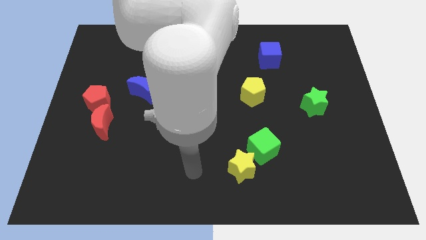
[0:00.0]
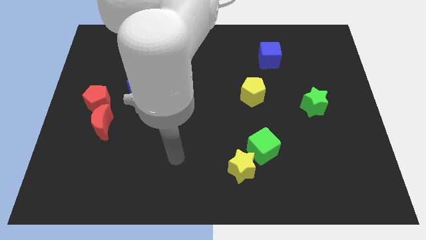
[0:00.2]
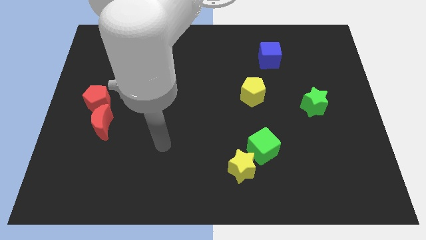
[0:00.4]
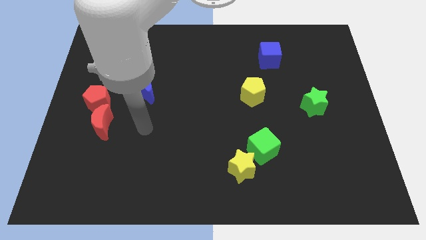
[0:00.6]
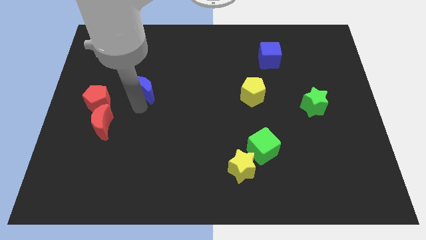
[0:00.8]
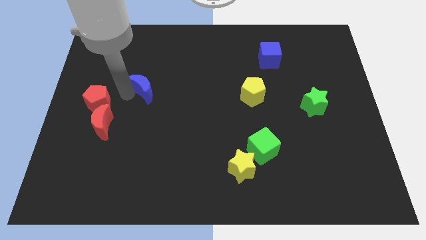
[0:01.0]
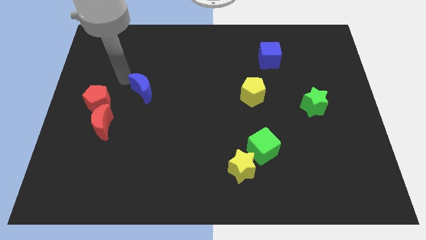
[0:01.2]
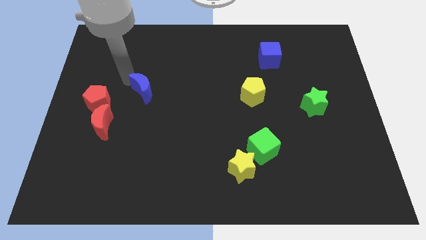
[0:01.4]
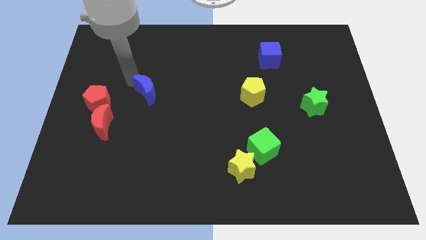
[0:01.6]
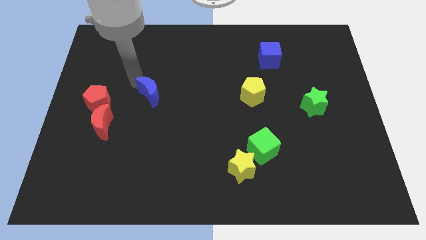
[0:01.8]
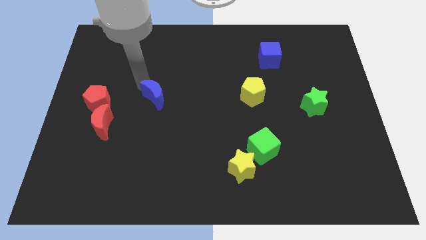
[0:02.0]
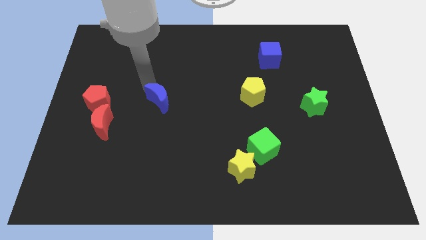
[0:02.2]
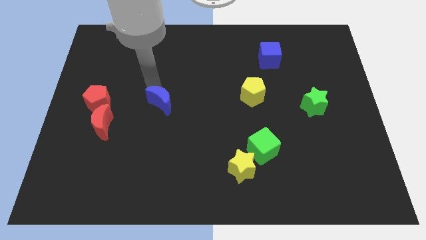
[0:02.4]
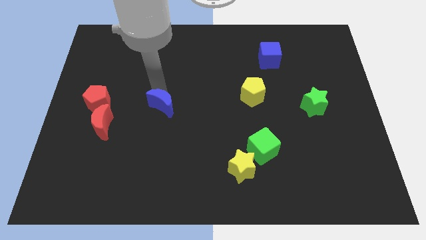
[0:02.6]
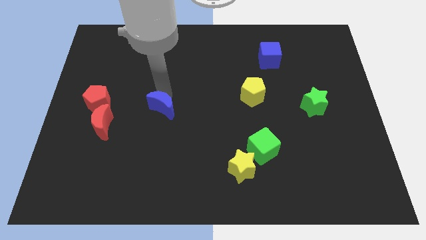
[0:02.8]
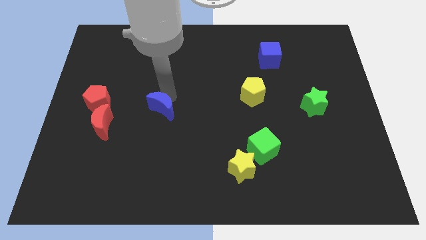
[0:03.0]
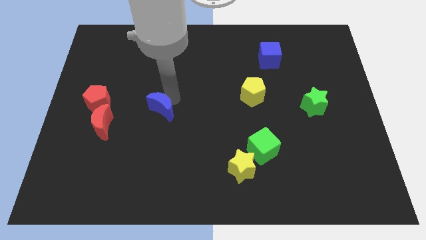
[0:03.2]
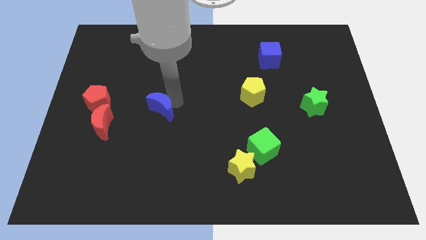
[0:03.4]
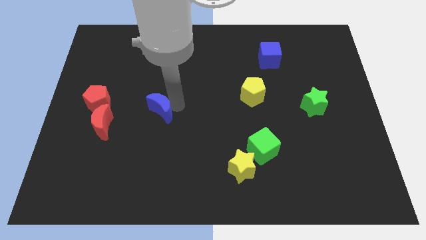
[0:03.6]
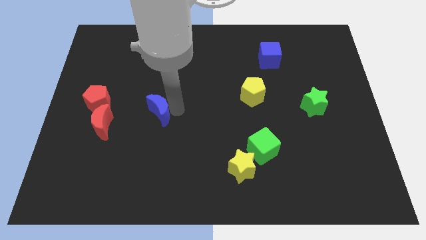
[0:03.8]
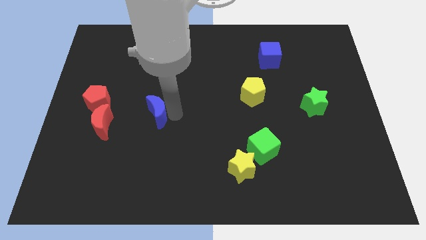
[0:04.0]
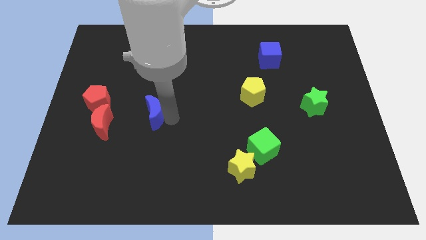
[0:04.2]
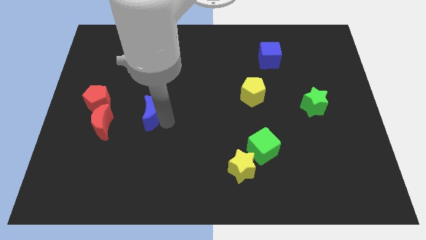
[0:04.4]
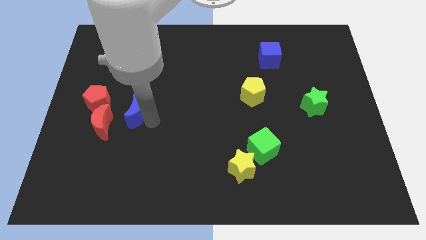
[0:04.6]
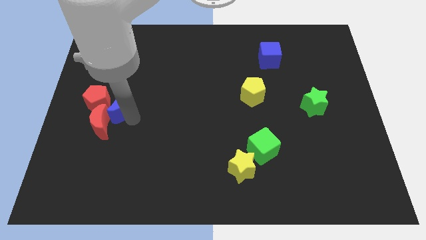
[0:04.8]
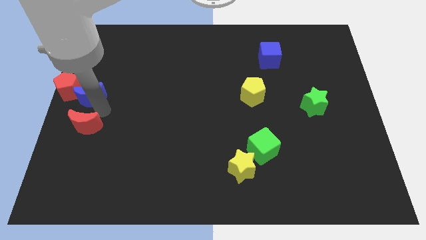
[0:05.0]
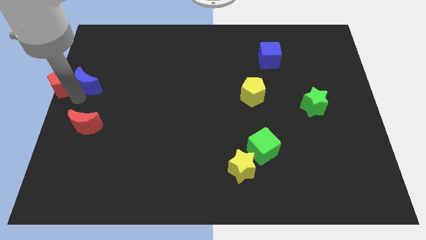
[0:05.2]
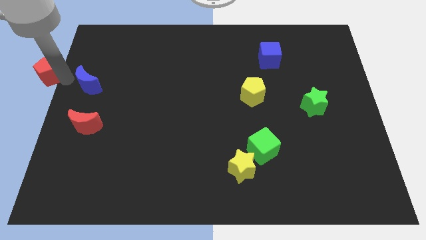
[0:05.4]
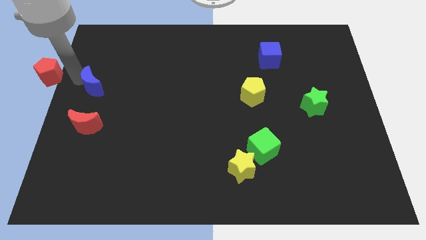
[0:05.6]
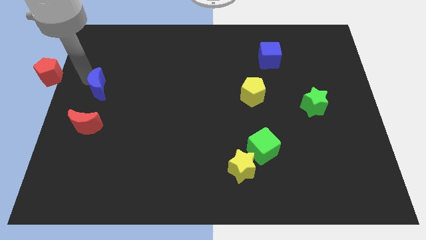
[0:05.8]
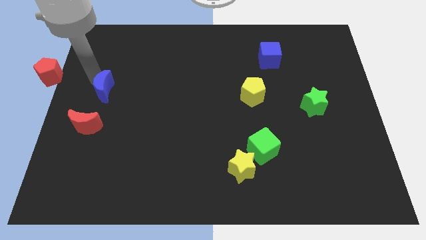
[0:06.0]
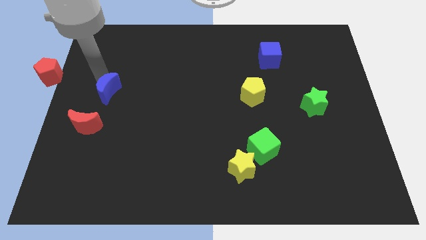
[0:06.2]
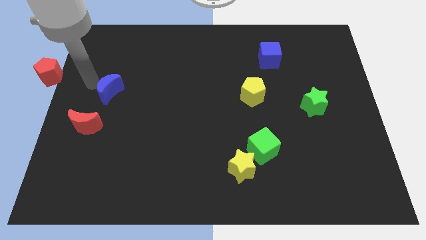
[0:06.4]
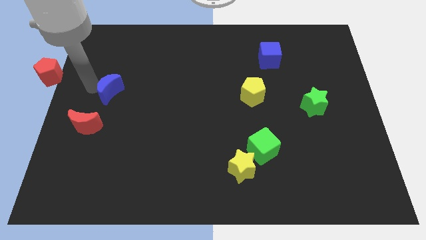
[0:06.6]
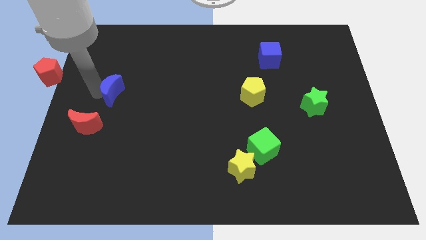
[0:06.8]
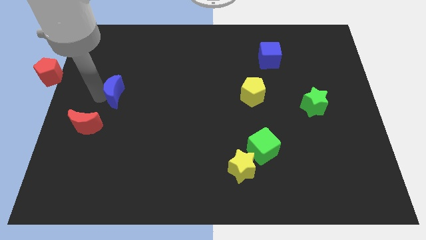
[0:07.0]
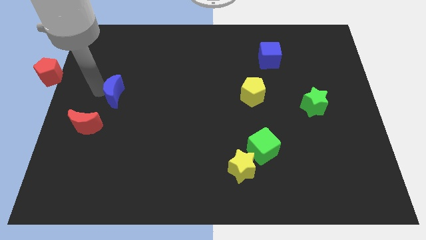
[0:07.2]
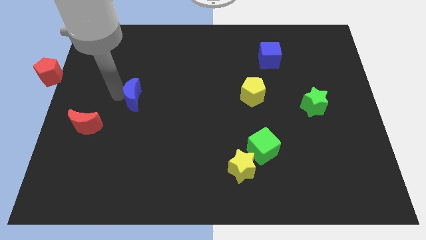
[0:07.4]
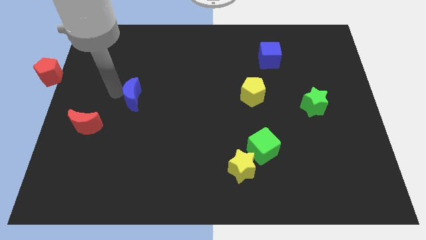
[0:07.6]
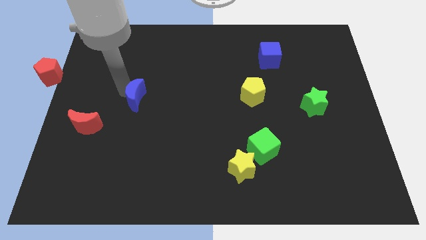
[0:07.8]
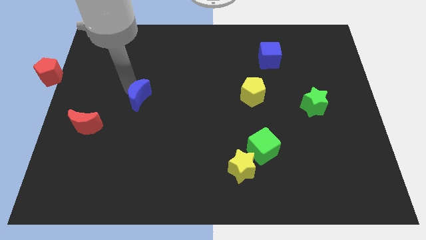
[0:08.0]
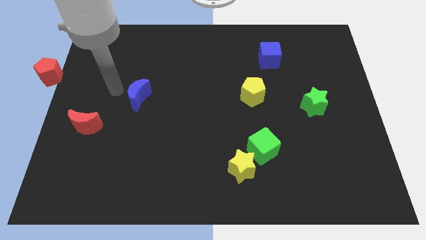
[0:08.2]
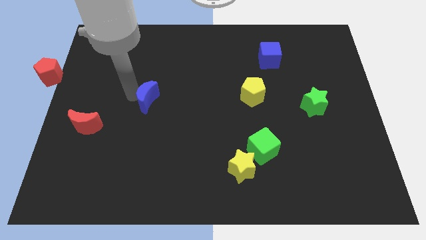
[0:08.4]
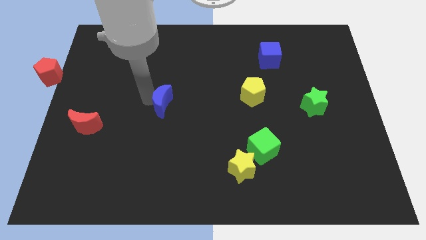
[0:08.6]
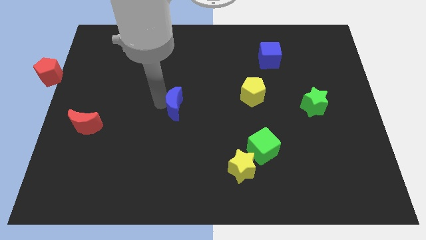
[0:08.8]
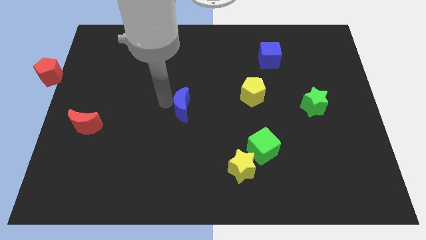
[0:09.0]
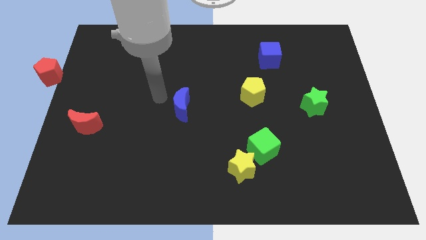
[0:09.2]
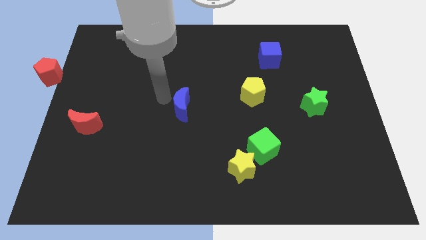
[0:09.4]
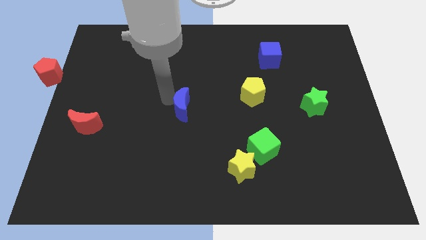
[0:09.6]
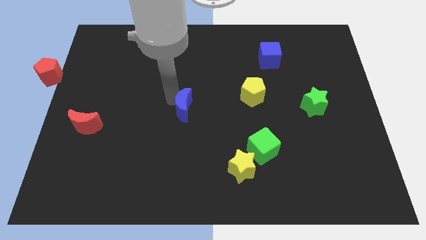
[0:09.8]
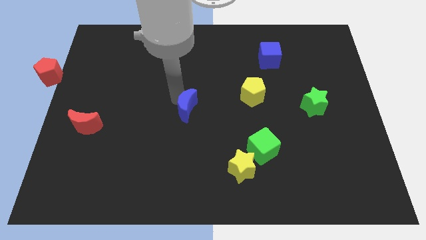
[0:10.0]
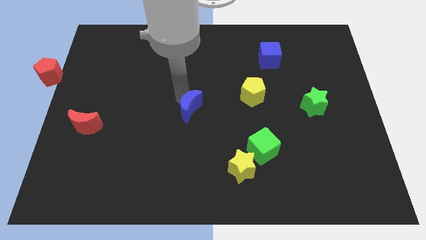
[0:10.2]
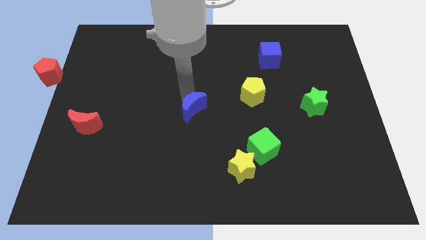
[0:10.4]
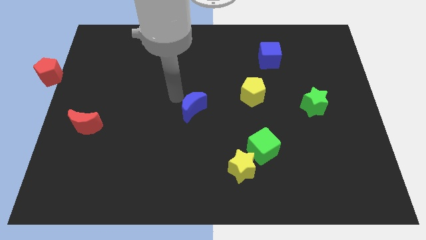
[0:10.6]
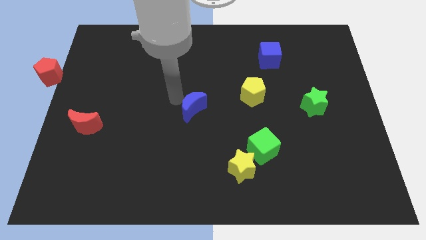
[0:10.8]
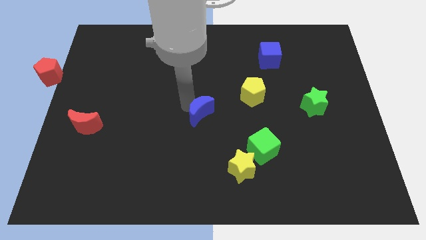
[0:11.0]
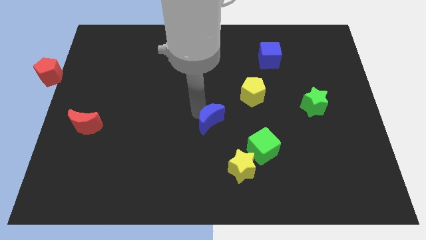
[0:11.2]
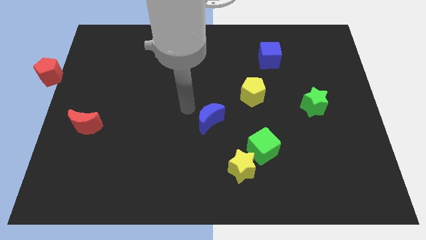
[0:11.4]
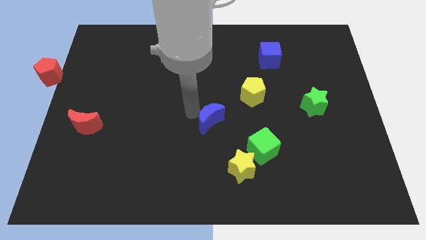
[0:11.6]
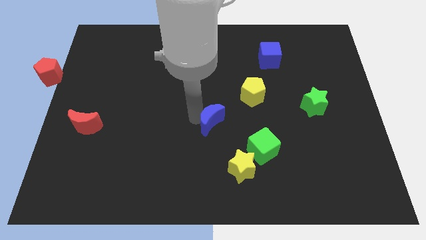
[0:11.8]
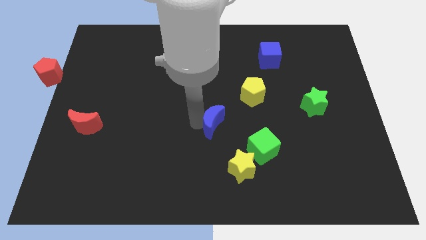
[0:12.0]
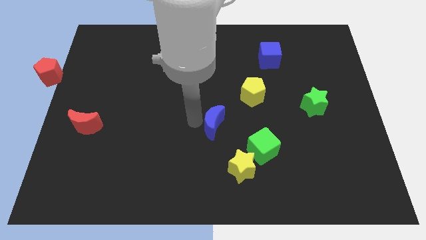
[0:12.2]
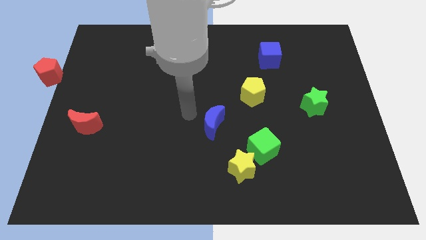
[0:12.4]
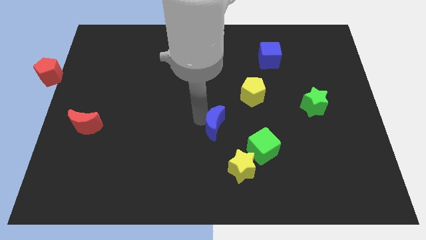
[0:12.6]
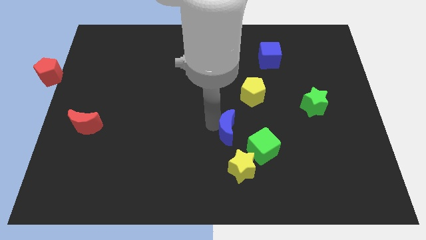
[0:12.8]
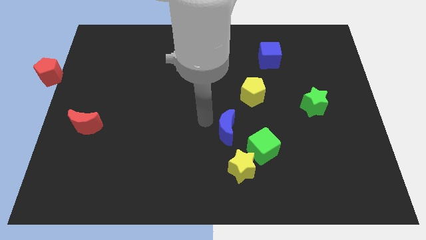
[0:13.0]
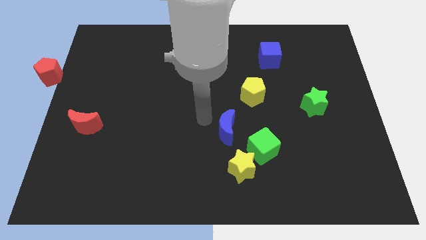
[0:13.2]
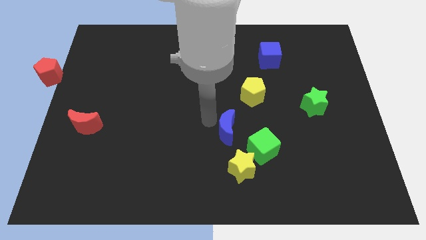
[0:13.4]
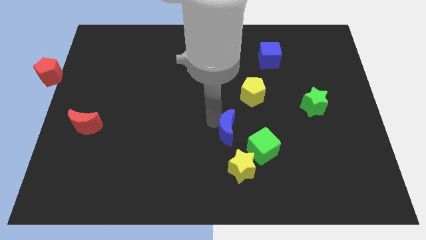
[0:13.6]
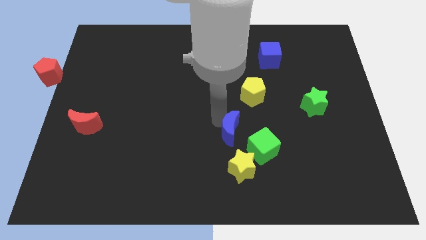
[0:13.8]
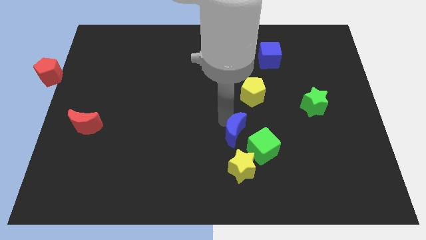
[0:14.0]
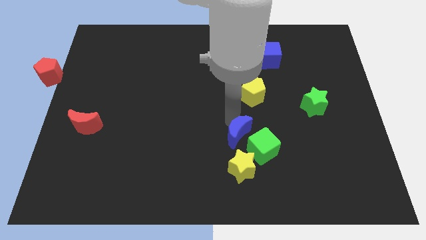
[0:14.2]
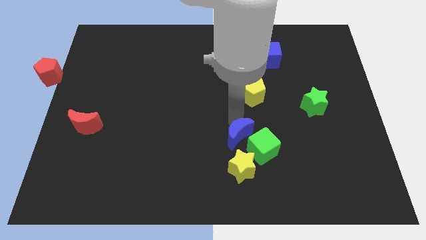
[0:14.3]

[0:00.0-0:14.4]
slide the blue moon towards the green cube
